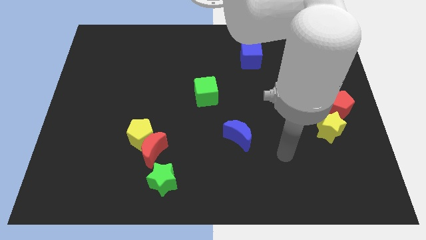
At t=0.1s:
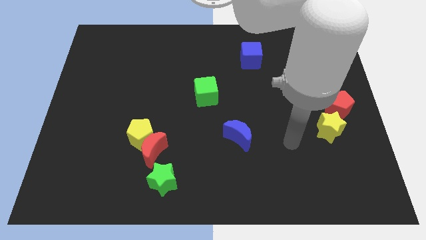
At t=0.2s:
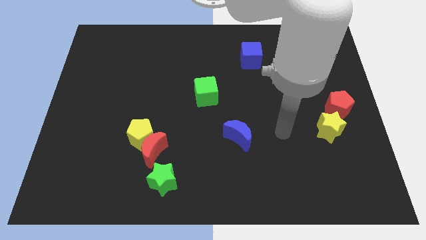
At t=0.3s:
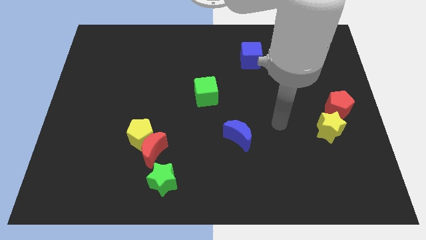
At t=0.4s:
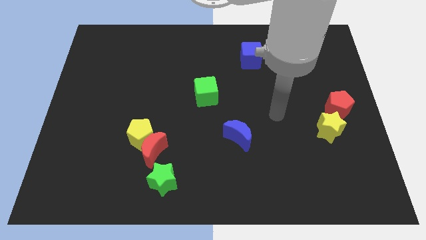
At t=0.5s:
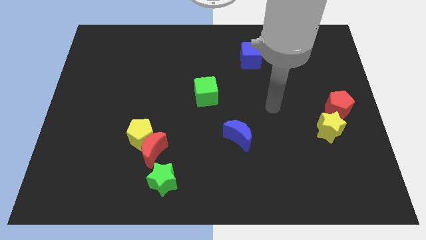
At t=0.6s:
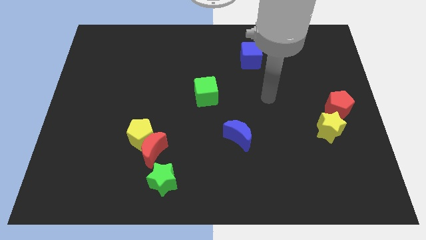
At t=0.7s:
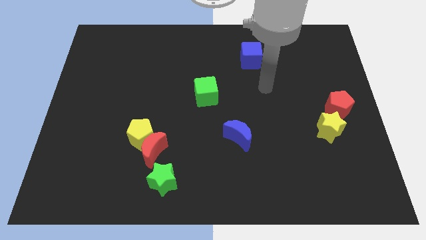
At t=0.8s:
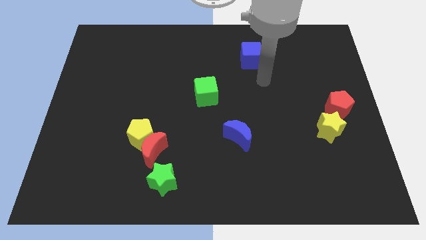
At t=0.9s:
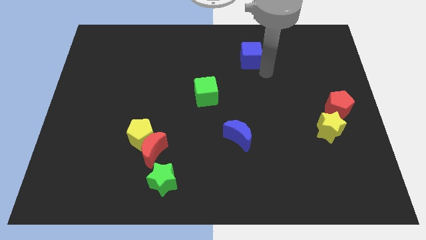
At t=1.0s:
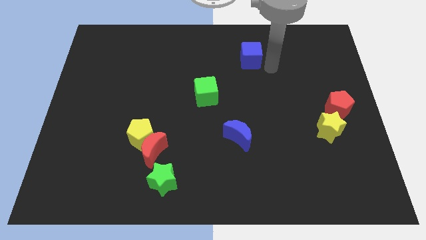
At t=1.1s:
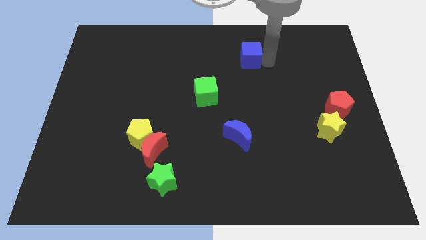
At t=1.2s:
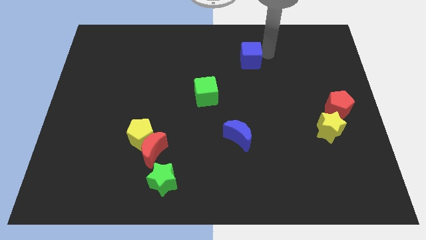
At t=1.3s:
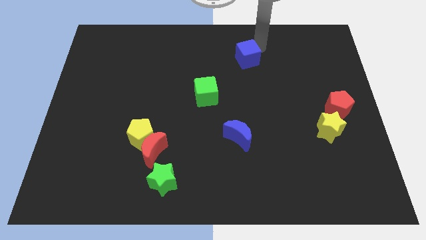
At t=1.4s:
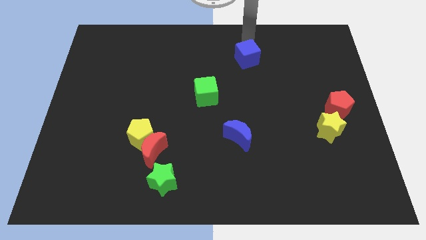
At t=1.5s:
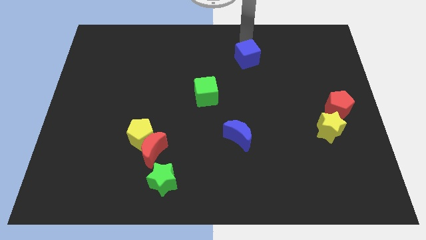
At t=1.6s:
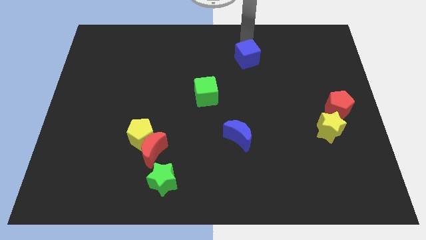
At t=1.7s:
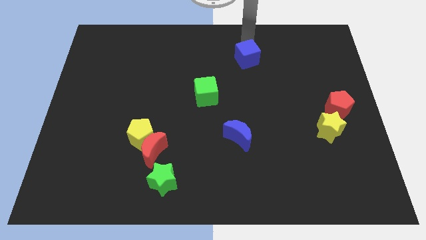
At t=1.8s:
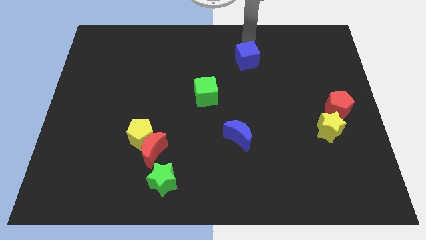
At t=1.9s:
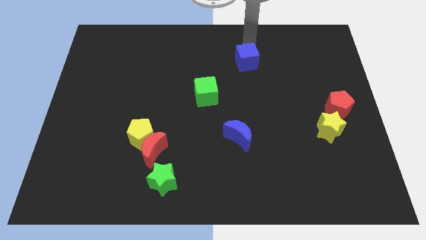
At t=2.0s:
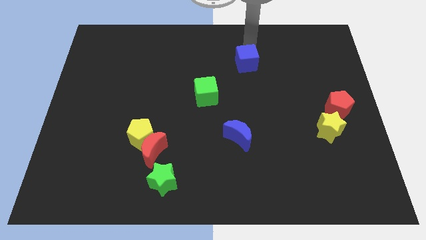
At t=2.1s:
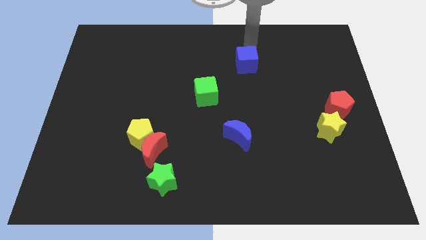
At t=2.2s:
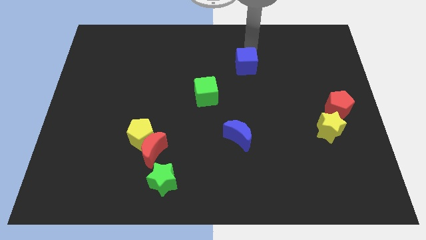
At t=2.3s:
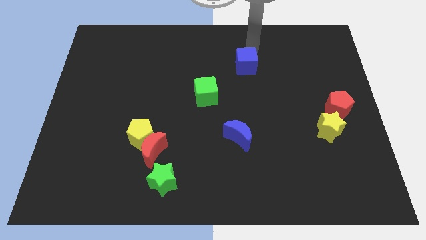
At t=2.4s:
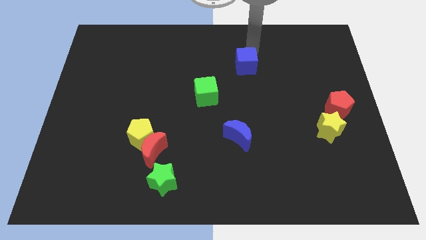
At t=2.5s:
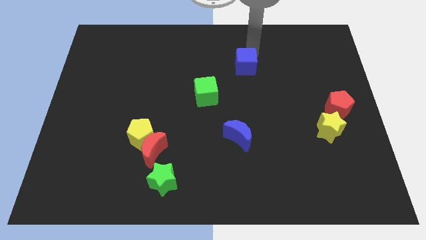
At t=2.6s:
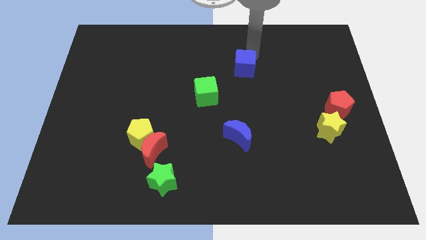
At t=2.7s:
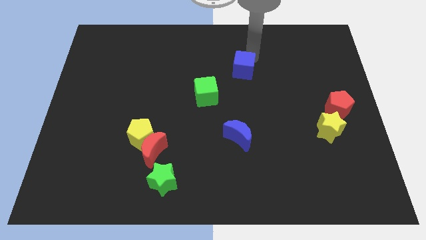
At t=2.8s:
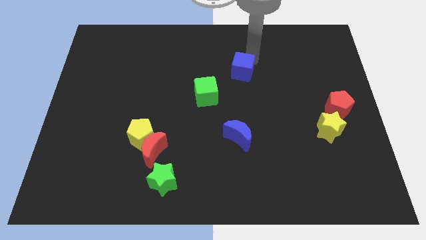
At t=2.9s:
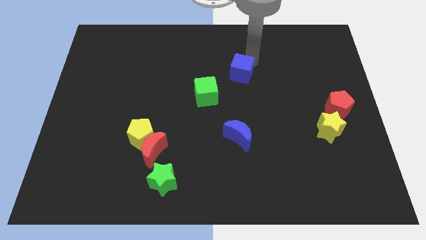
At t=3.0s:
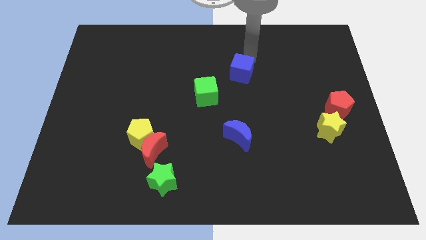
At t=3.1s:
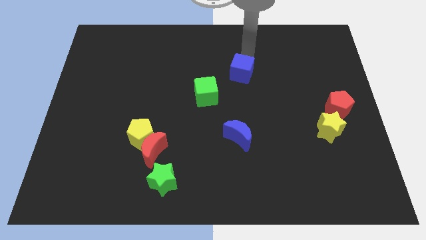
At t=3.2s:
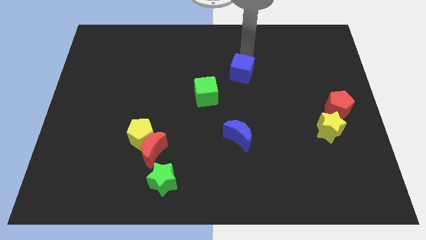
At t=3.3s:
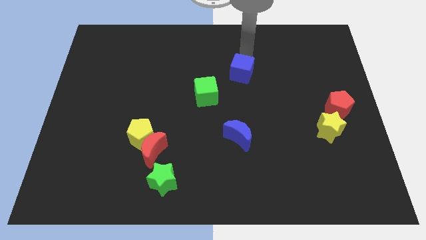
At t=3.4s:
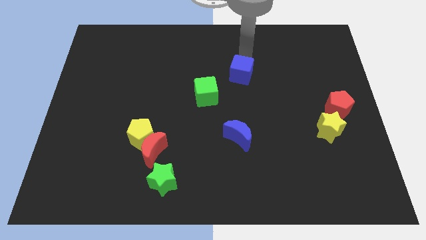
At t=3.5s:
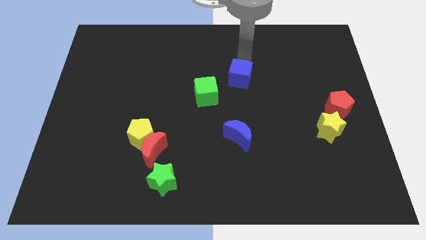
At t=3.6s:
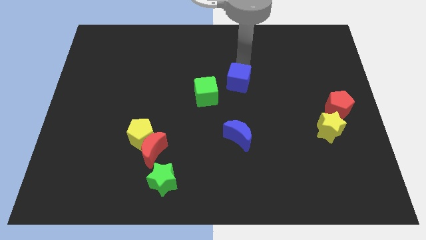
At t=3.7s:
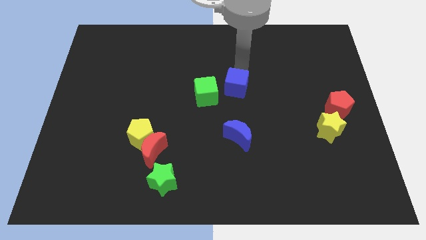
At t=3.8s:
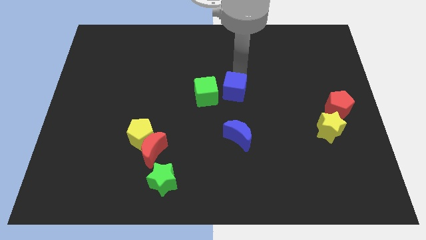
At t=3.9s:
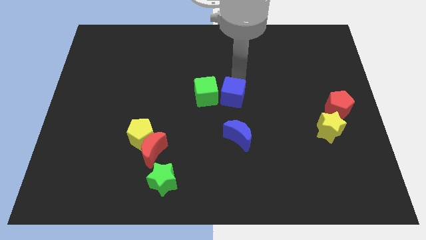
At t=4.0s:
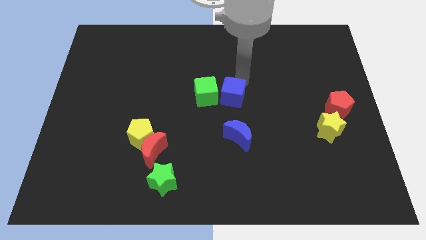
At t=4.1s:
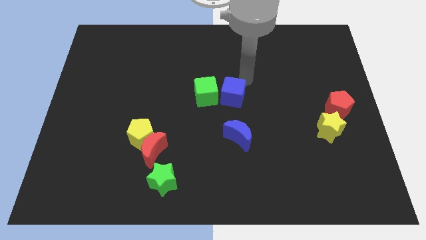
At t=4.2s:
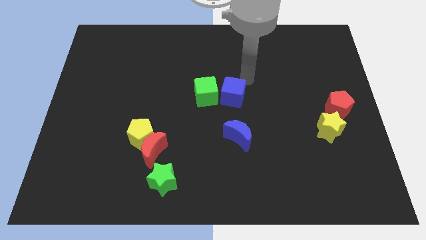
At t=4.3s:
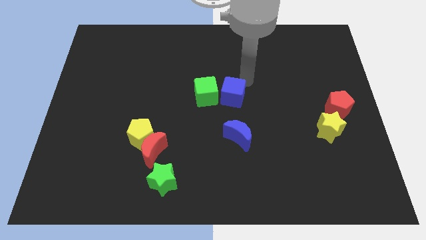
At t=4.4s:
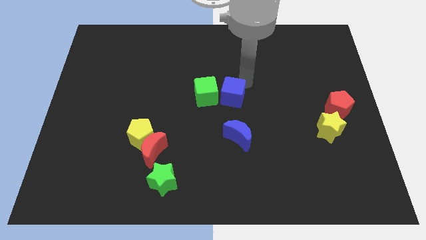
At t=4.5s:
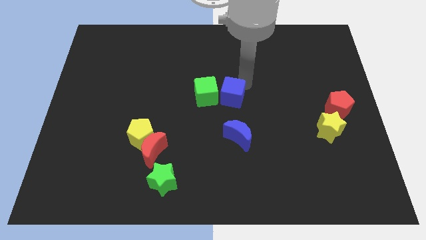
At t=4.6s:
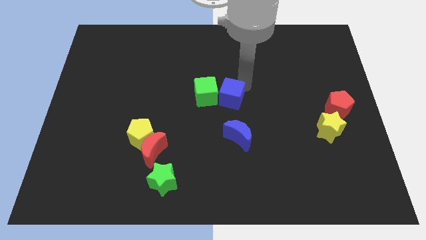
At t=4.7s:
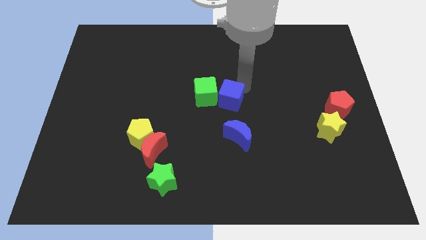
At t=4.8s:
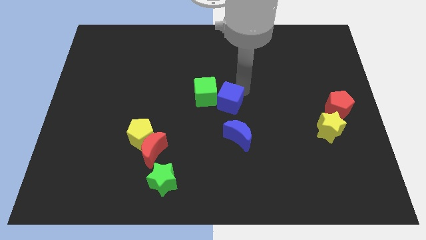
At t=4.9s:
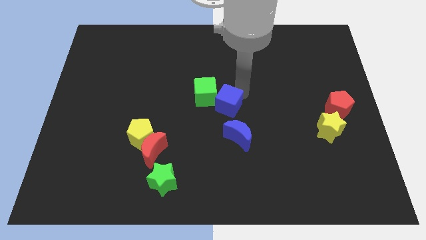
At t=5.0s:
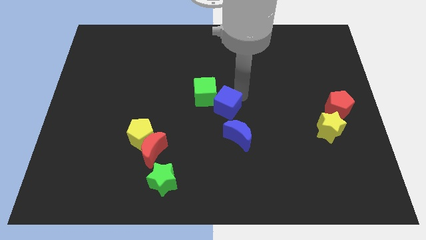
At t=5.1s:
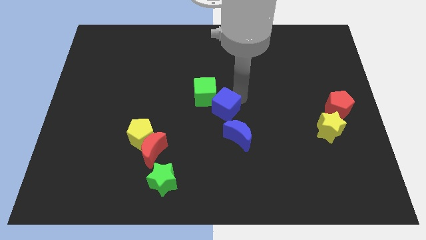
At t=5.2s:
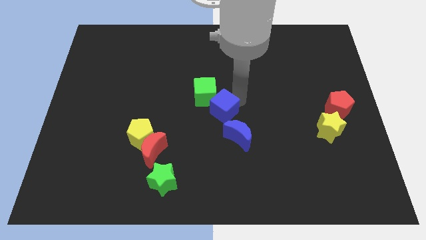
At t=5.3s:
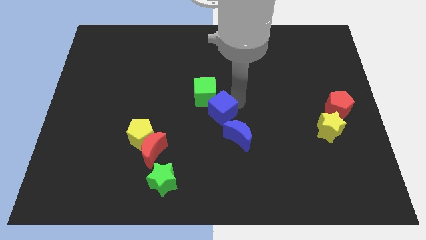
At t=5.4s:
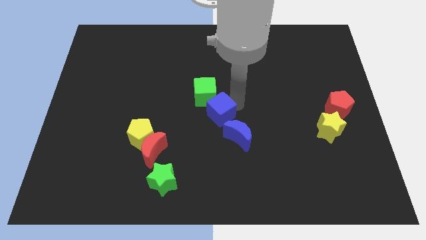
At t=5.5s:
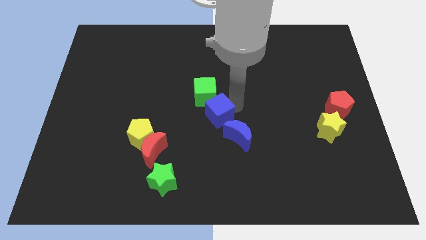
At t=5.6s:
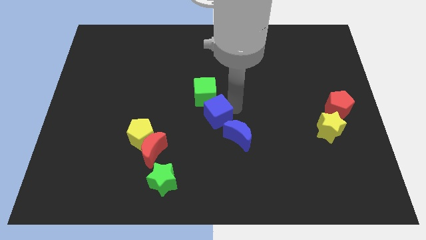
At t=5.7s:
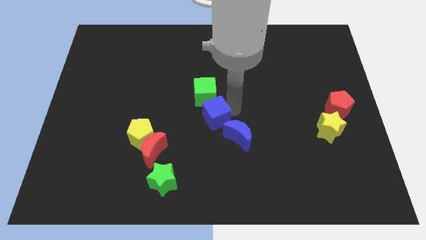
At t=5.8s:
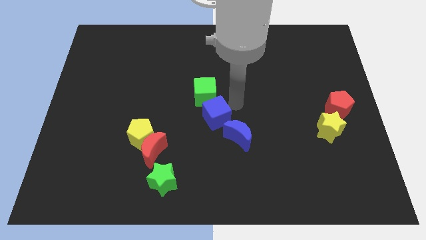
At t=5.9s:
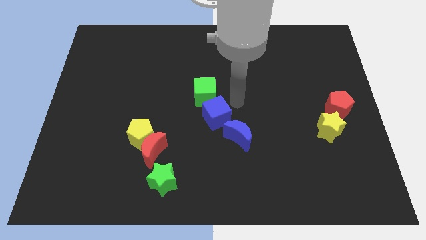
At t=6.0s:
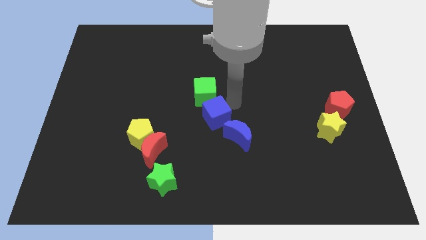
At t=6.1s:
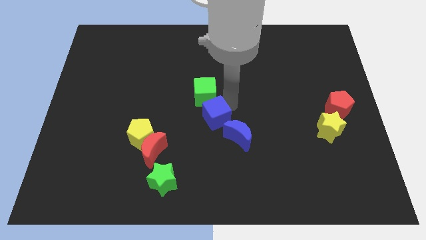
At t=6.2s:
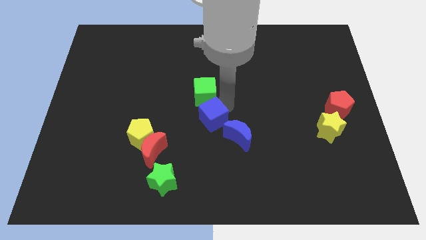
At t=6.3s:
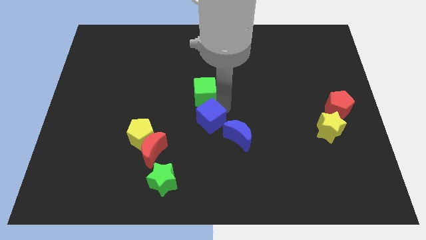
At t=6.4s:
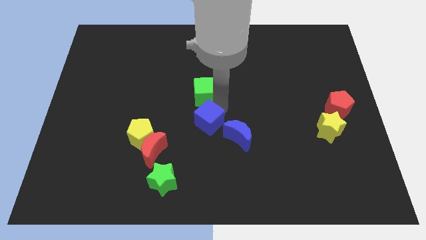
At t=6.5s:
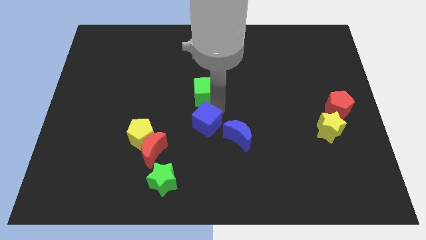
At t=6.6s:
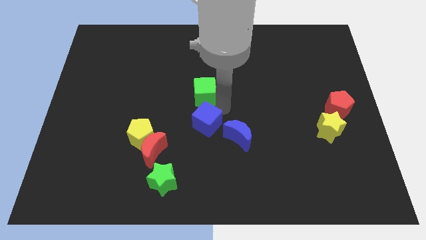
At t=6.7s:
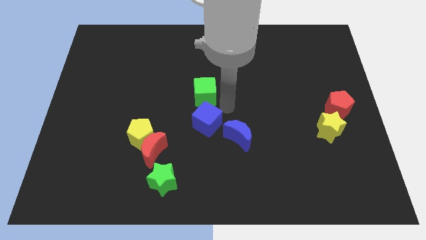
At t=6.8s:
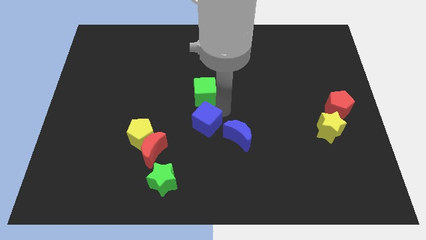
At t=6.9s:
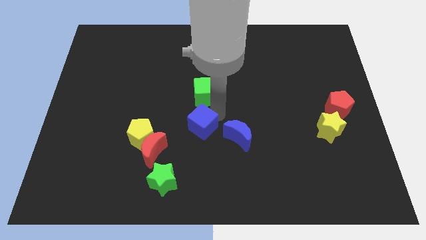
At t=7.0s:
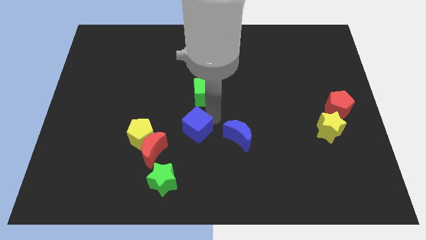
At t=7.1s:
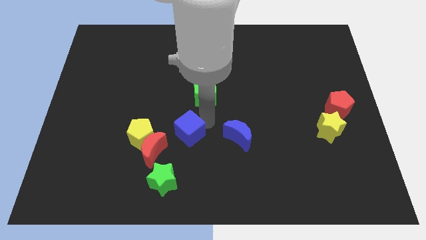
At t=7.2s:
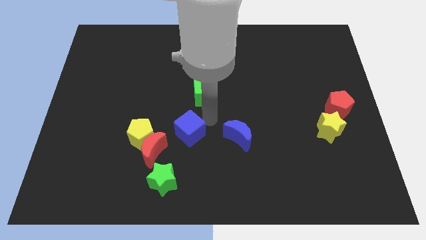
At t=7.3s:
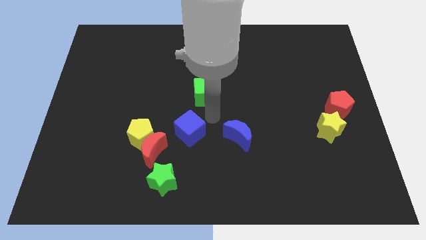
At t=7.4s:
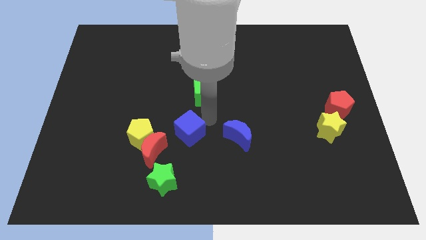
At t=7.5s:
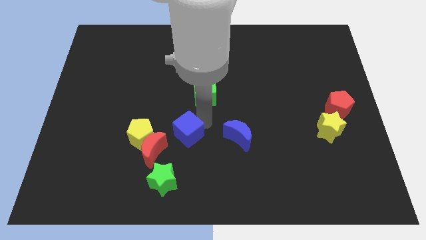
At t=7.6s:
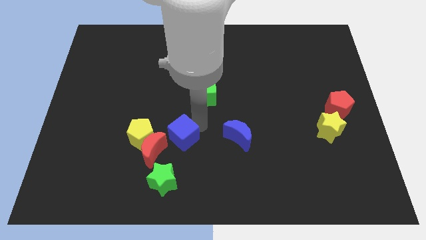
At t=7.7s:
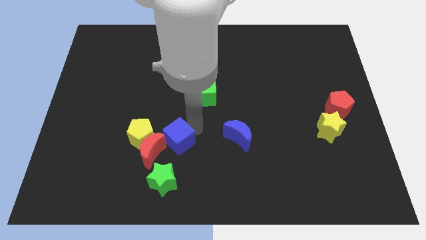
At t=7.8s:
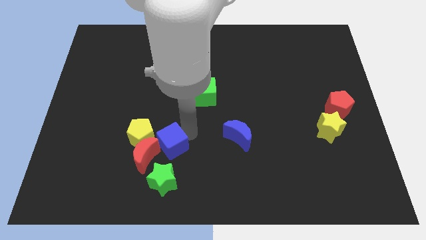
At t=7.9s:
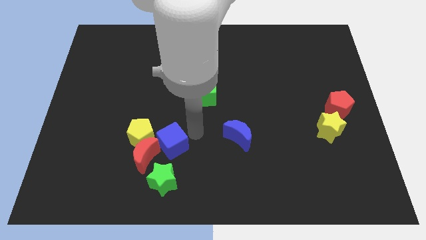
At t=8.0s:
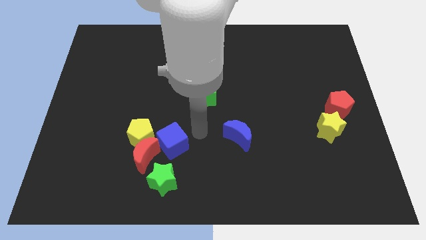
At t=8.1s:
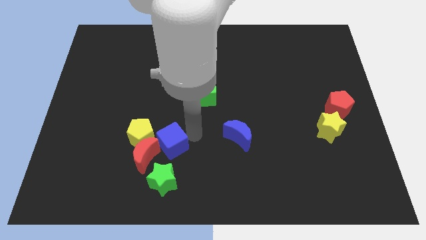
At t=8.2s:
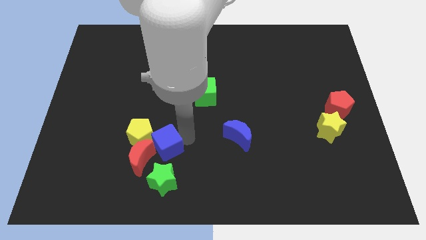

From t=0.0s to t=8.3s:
slide the blue cube to the red moon
